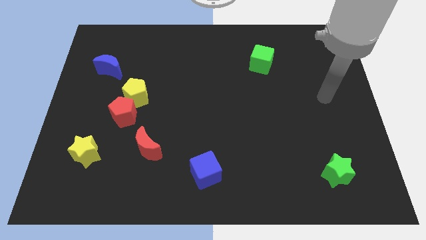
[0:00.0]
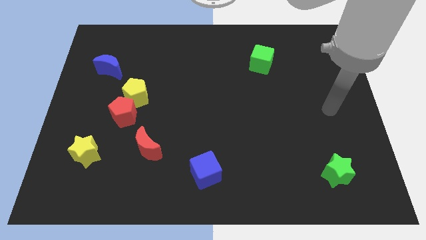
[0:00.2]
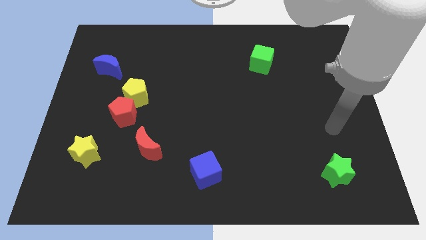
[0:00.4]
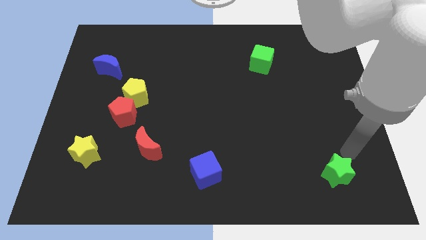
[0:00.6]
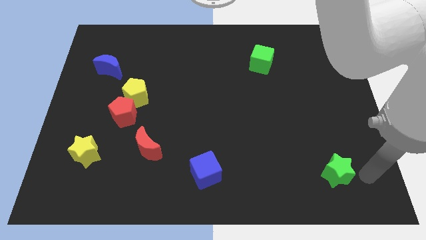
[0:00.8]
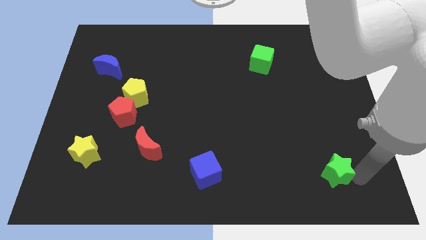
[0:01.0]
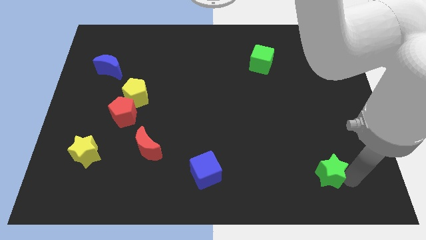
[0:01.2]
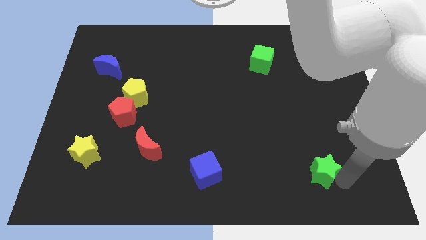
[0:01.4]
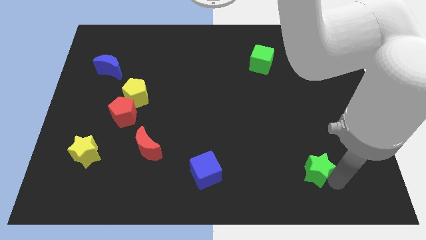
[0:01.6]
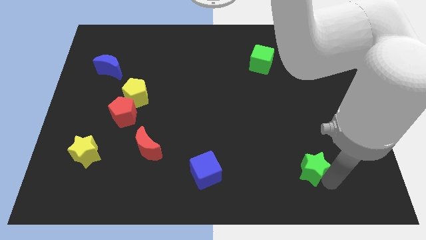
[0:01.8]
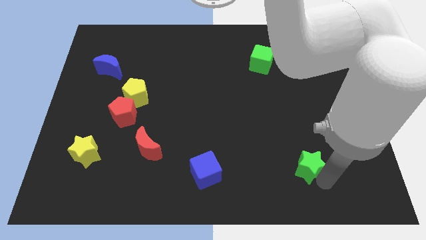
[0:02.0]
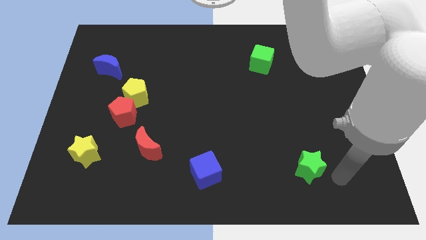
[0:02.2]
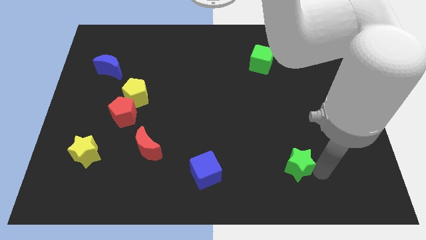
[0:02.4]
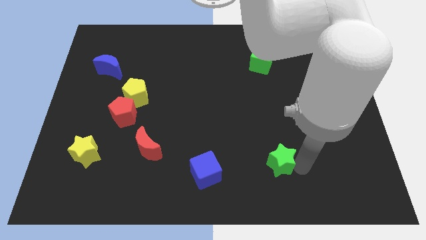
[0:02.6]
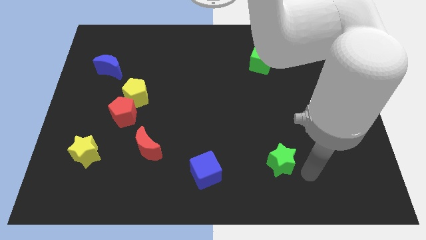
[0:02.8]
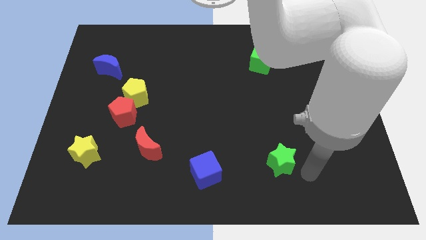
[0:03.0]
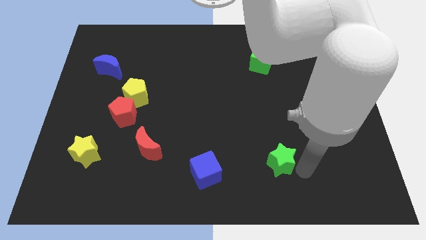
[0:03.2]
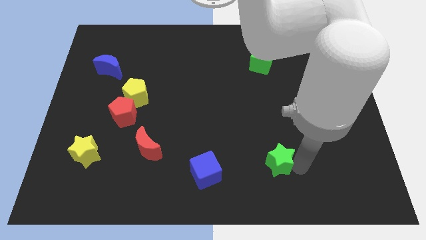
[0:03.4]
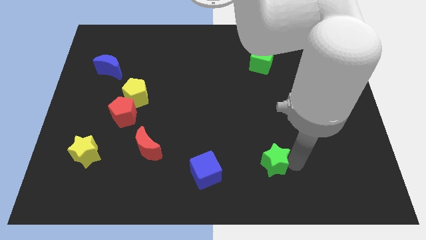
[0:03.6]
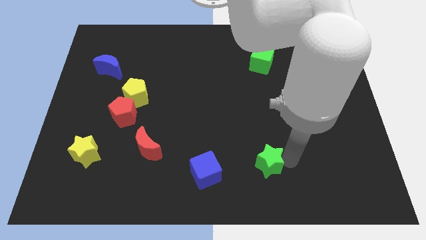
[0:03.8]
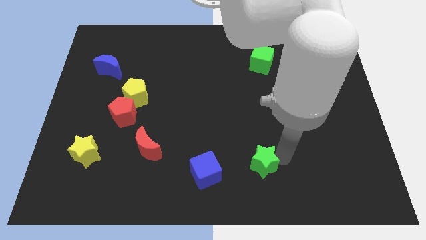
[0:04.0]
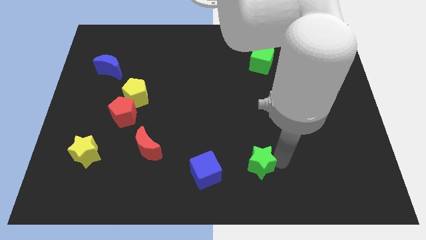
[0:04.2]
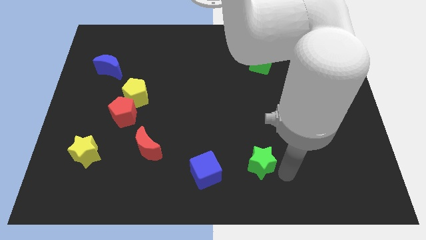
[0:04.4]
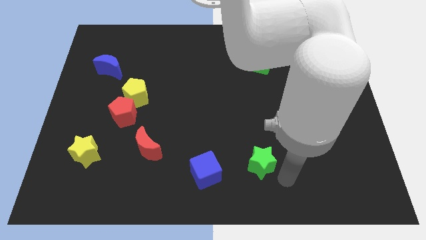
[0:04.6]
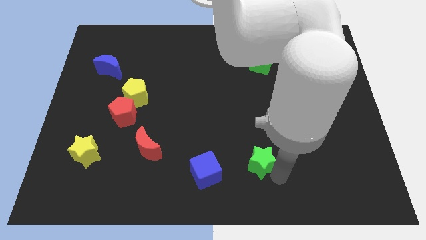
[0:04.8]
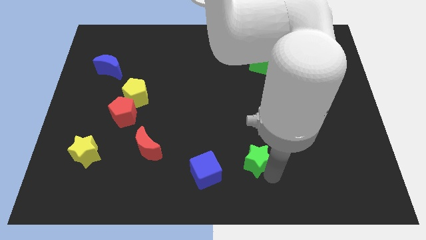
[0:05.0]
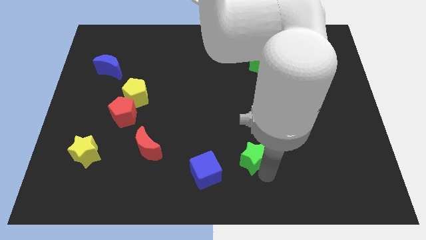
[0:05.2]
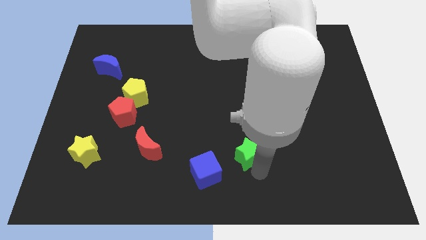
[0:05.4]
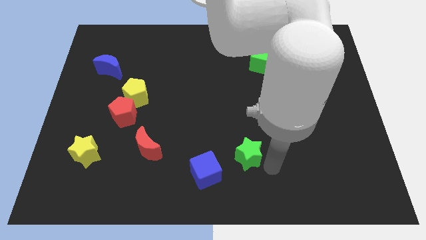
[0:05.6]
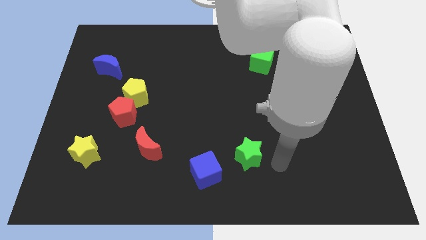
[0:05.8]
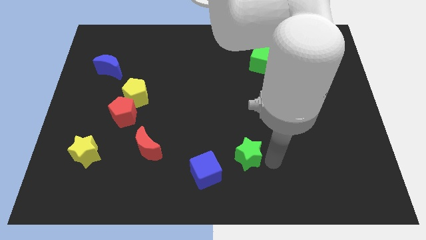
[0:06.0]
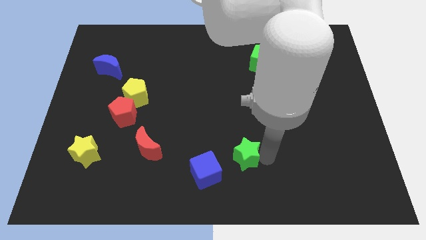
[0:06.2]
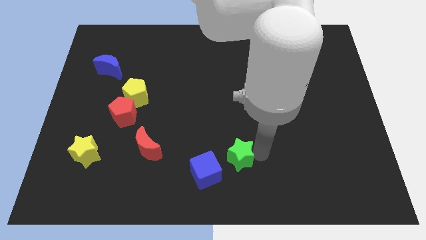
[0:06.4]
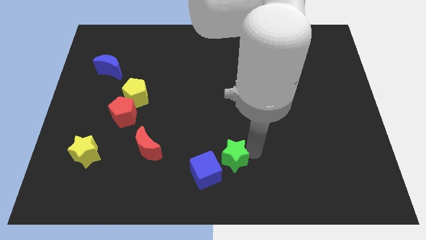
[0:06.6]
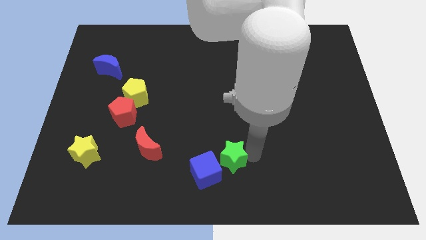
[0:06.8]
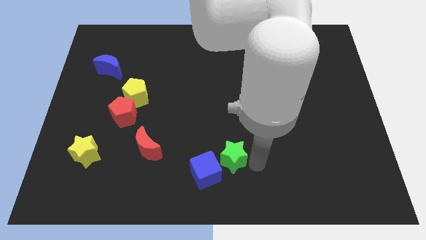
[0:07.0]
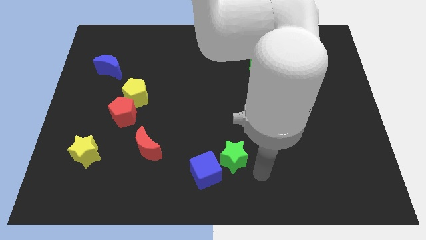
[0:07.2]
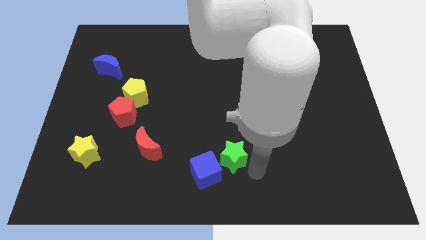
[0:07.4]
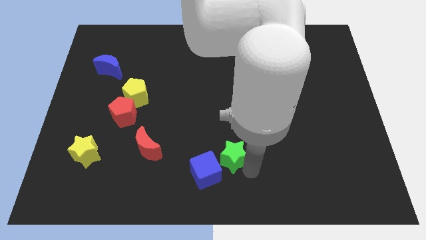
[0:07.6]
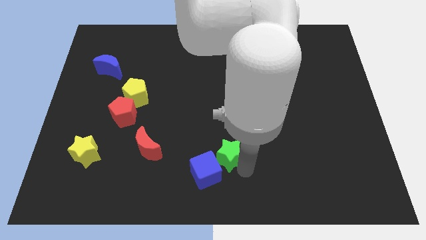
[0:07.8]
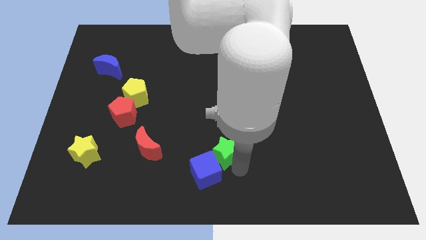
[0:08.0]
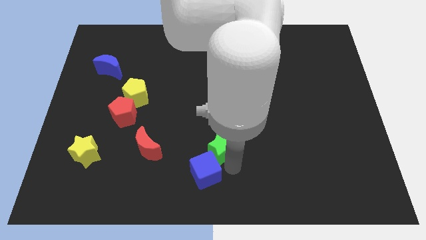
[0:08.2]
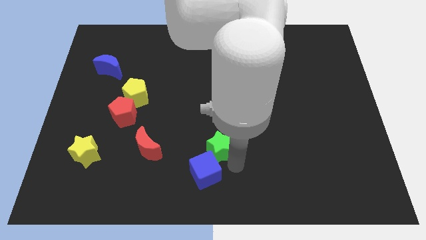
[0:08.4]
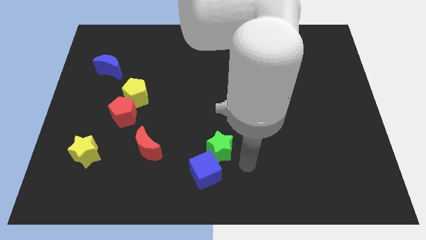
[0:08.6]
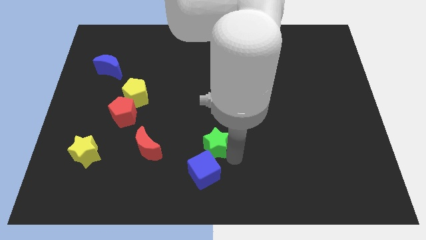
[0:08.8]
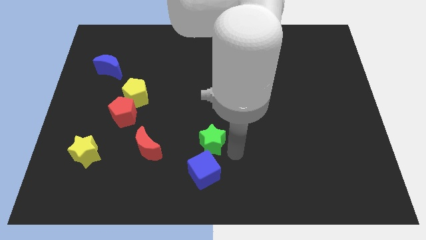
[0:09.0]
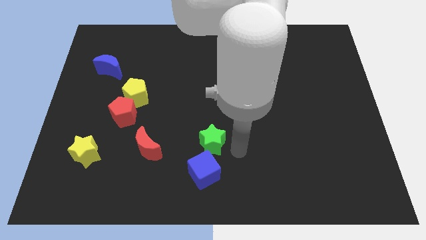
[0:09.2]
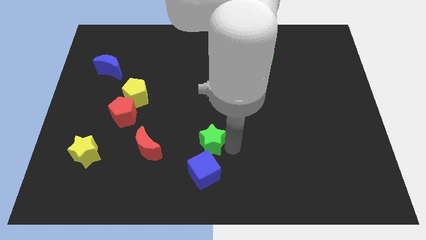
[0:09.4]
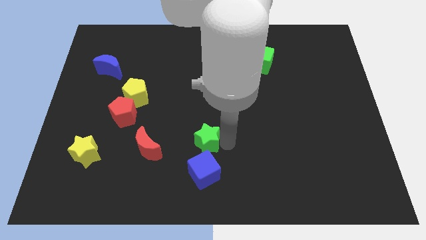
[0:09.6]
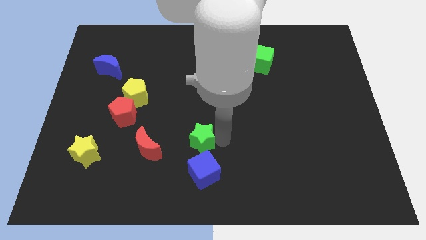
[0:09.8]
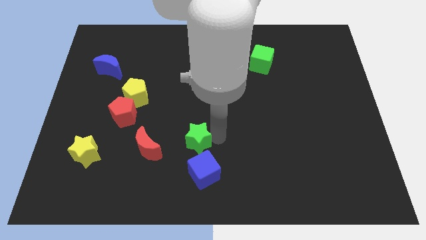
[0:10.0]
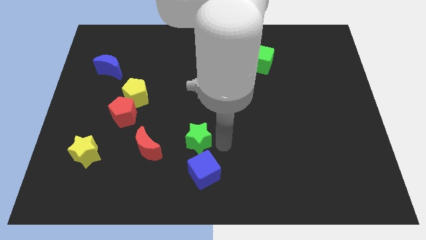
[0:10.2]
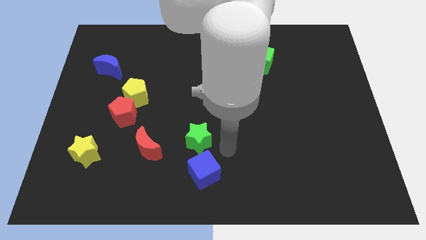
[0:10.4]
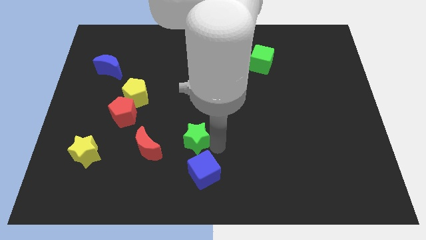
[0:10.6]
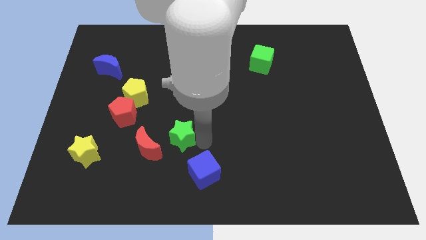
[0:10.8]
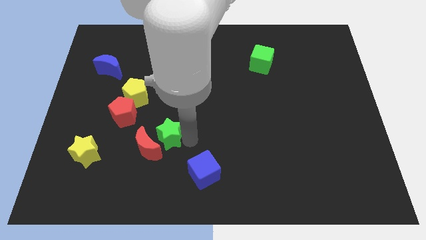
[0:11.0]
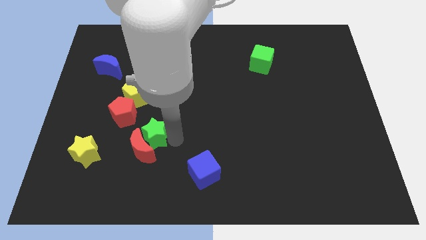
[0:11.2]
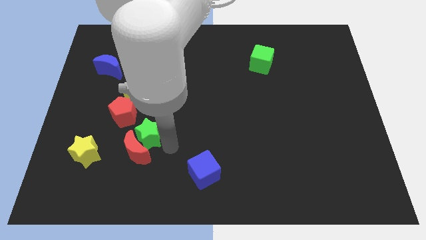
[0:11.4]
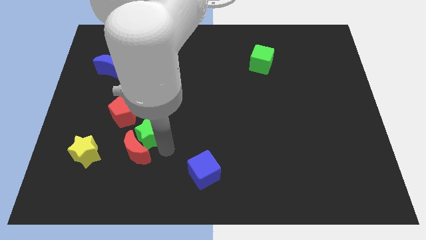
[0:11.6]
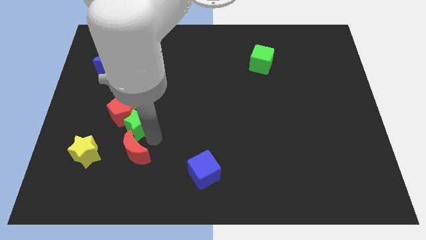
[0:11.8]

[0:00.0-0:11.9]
slide the green star towards the red pentagon

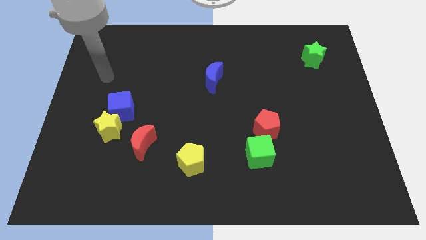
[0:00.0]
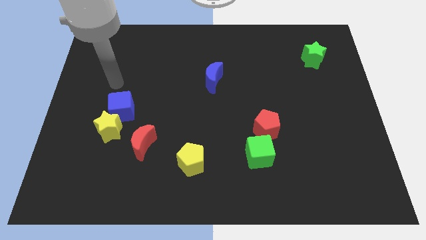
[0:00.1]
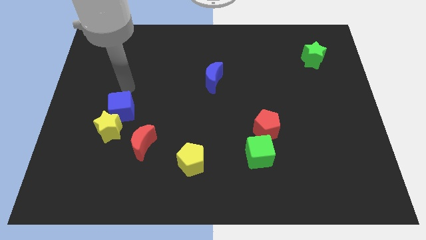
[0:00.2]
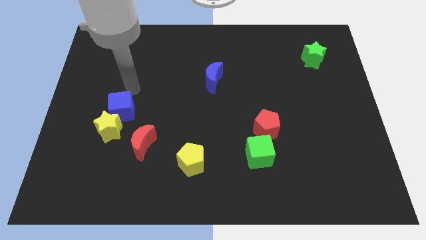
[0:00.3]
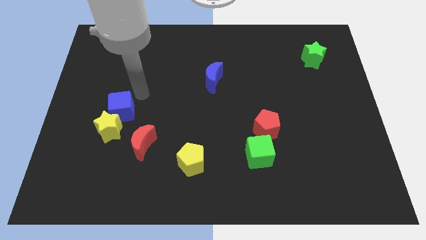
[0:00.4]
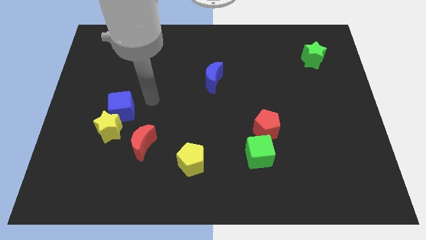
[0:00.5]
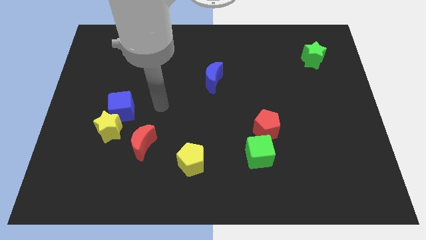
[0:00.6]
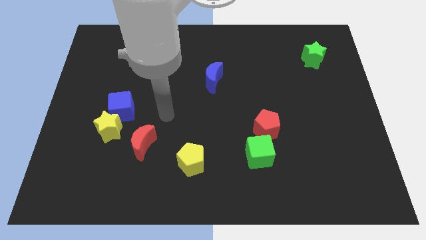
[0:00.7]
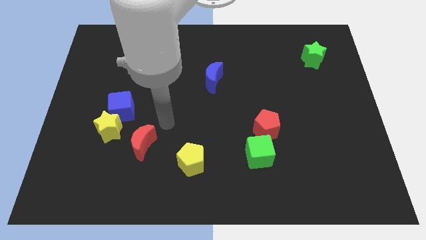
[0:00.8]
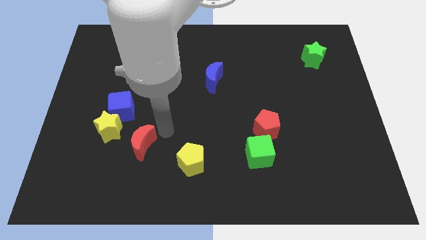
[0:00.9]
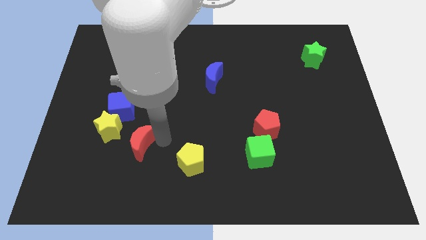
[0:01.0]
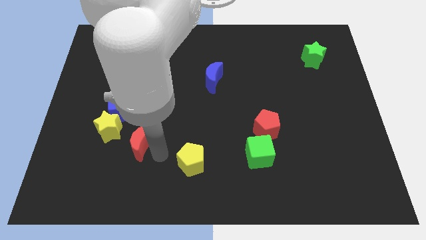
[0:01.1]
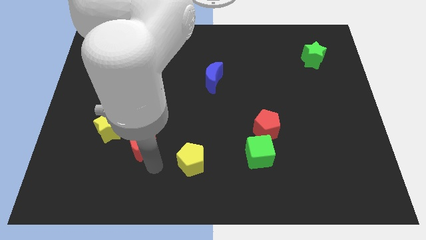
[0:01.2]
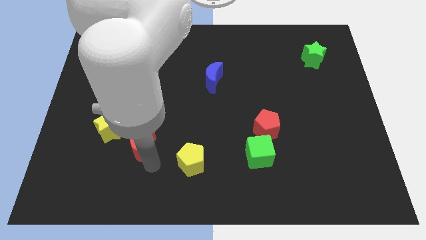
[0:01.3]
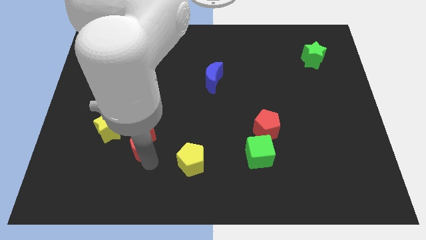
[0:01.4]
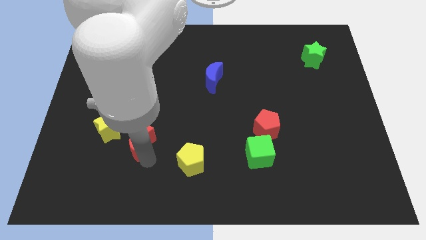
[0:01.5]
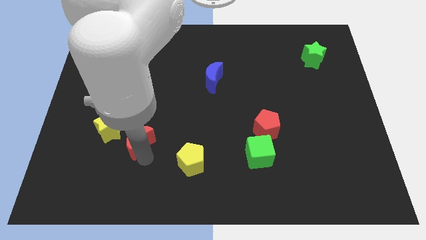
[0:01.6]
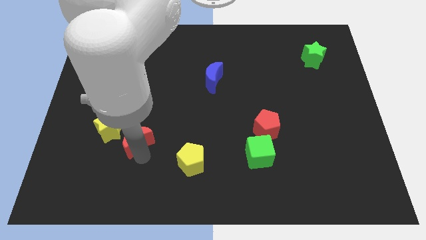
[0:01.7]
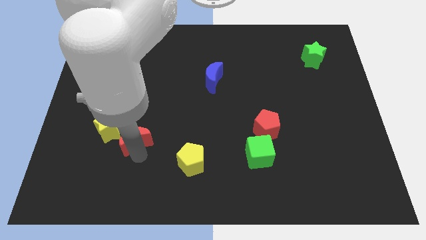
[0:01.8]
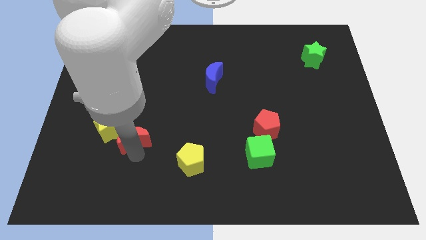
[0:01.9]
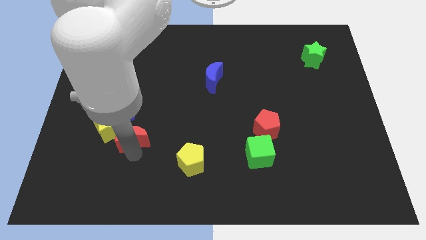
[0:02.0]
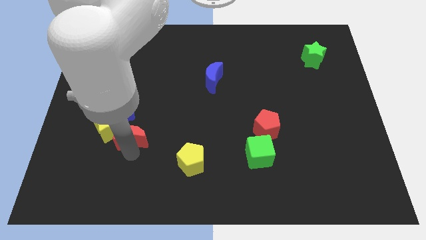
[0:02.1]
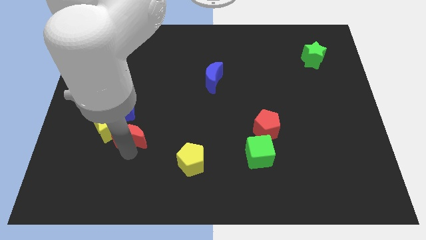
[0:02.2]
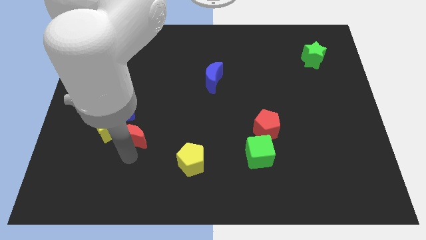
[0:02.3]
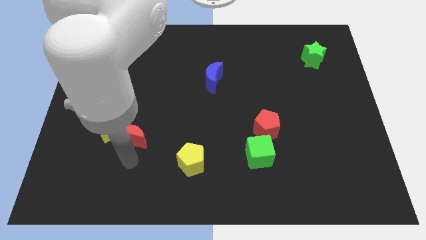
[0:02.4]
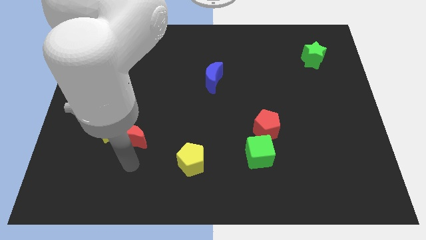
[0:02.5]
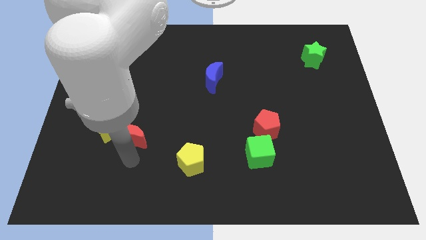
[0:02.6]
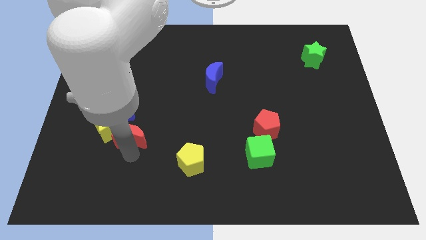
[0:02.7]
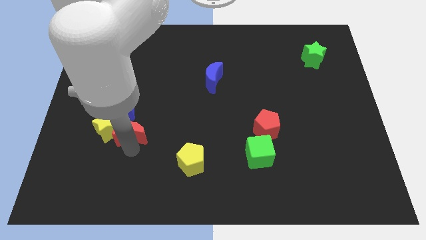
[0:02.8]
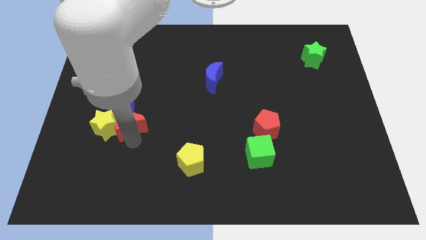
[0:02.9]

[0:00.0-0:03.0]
slide the red moon towards the blue cube
